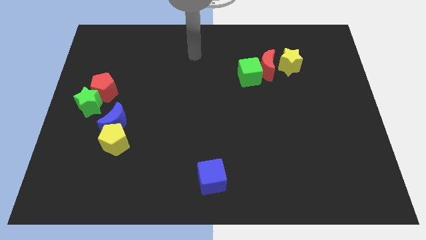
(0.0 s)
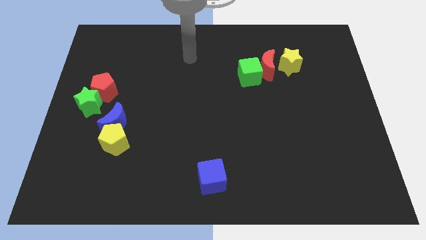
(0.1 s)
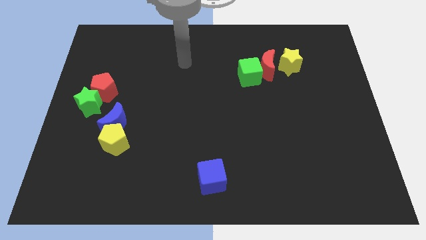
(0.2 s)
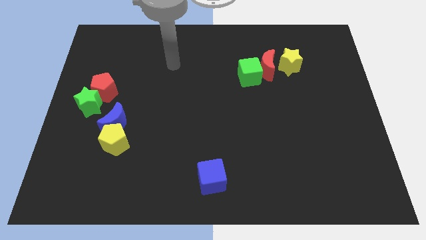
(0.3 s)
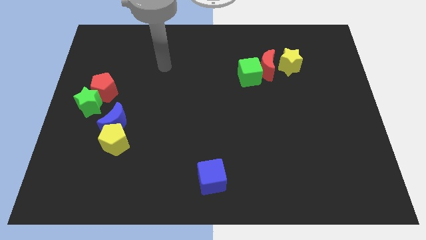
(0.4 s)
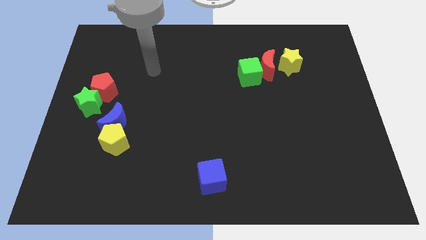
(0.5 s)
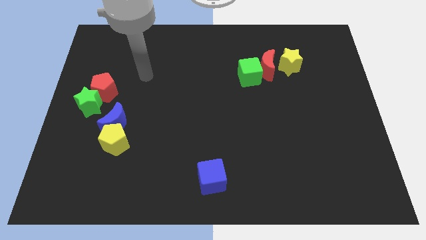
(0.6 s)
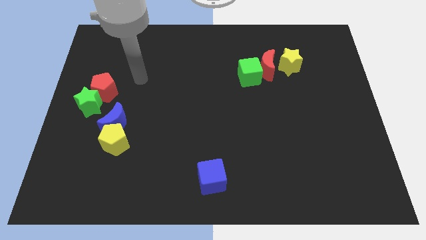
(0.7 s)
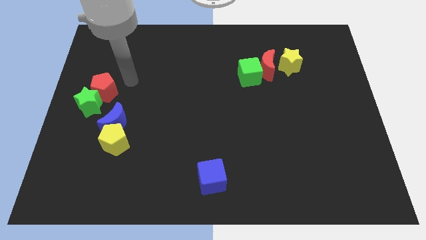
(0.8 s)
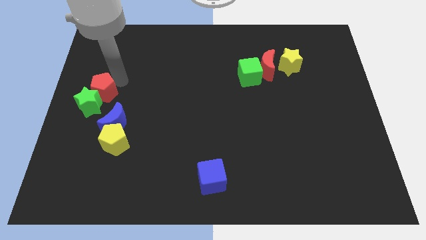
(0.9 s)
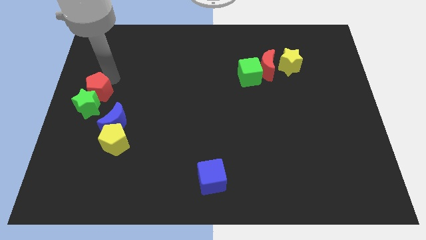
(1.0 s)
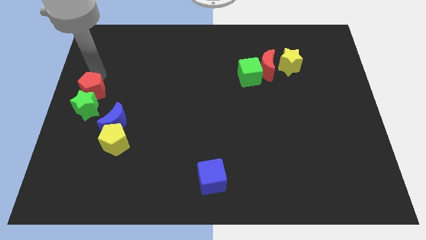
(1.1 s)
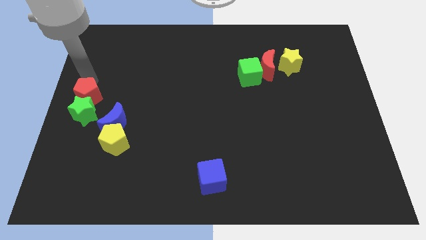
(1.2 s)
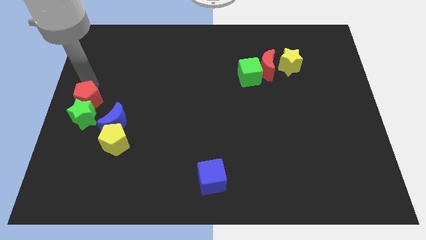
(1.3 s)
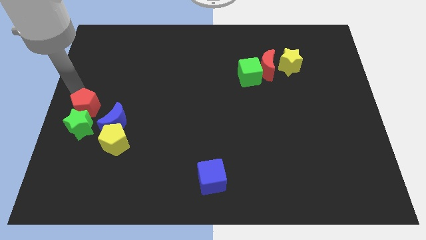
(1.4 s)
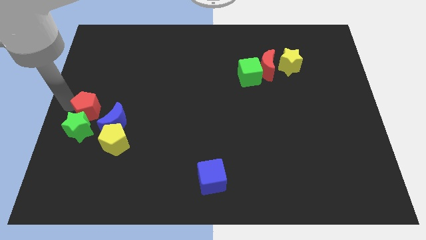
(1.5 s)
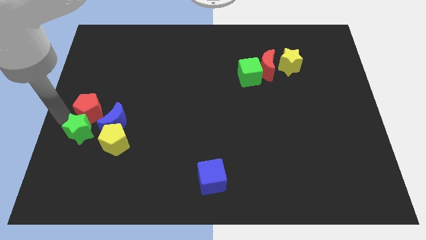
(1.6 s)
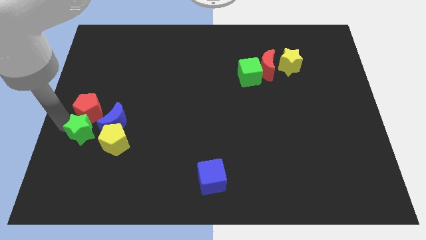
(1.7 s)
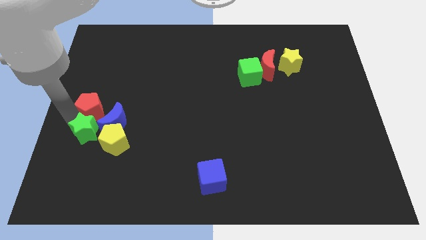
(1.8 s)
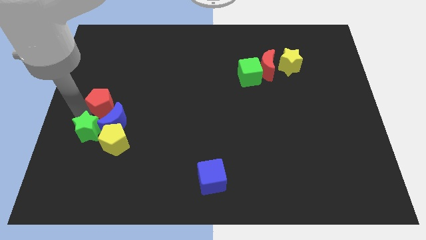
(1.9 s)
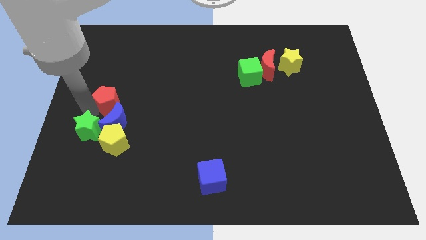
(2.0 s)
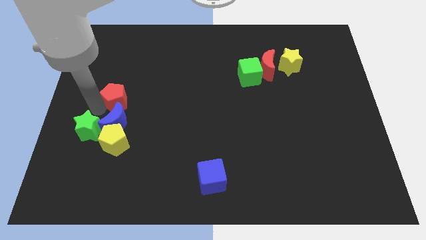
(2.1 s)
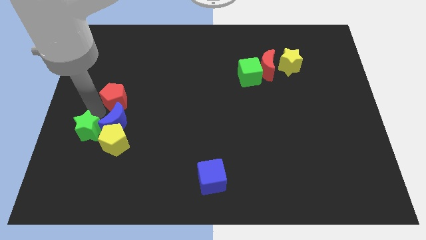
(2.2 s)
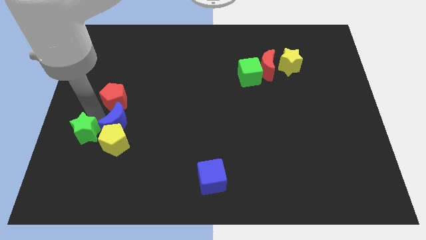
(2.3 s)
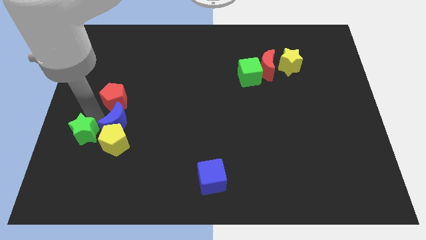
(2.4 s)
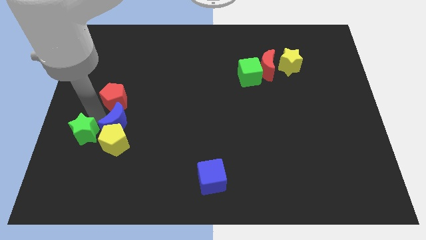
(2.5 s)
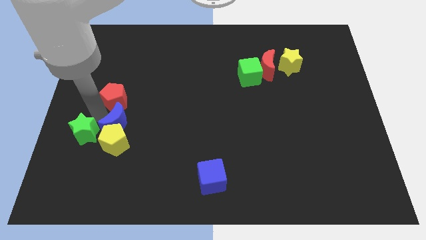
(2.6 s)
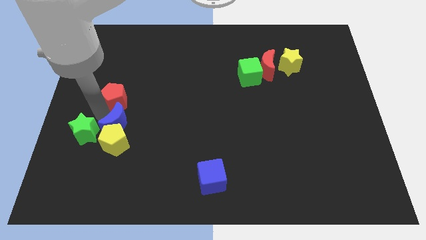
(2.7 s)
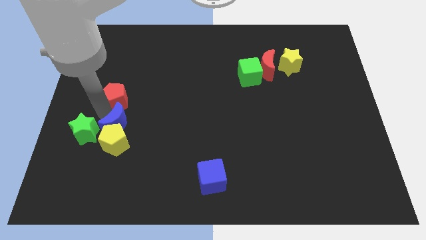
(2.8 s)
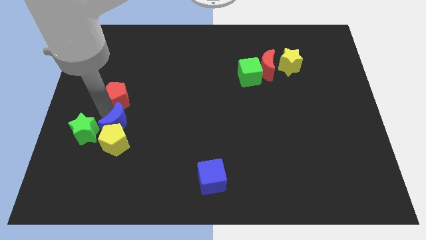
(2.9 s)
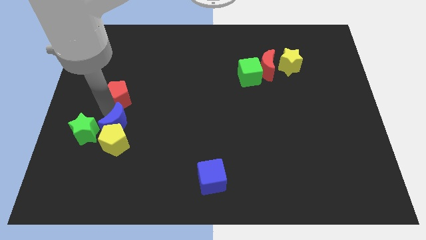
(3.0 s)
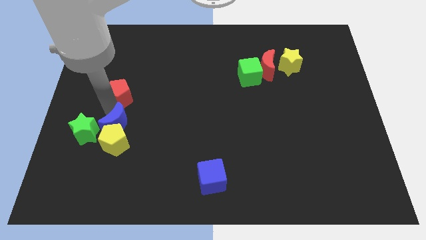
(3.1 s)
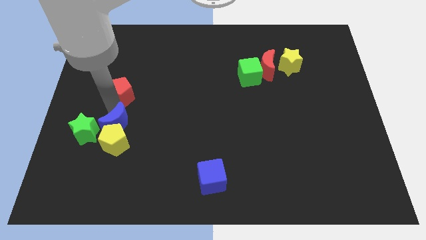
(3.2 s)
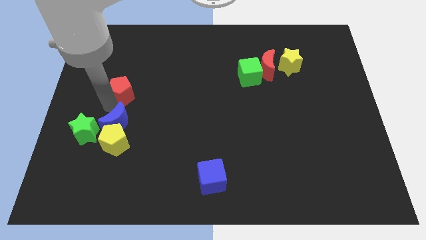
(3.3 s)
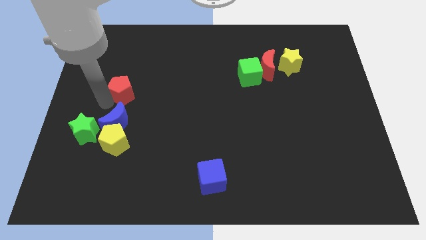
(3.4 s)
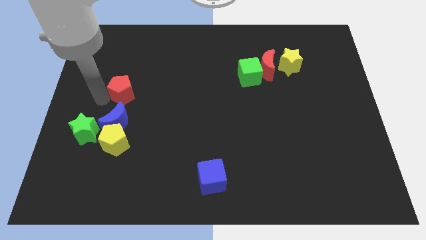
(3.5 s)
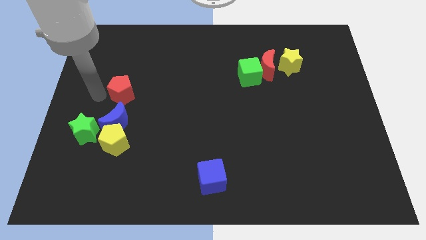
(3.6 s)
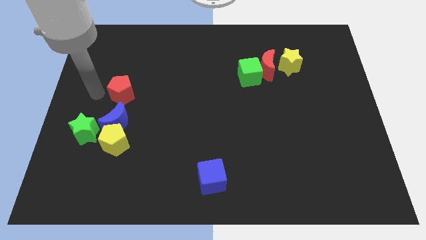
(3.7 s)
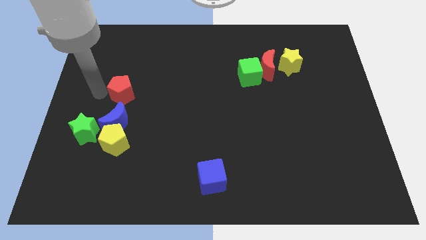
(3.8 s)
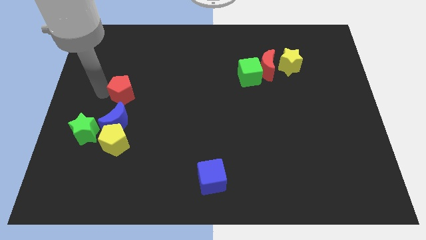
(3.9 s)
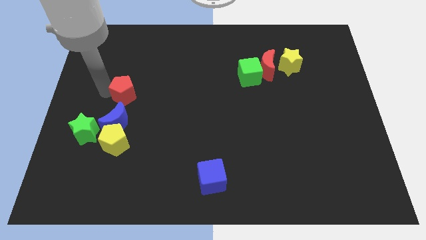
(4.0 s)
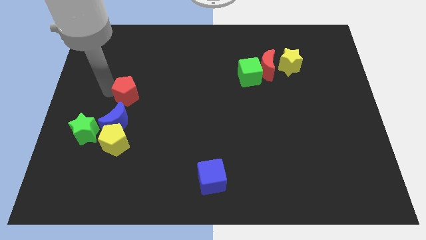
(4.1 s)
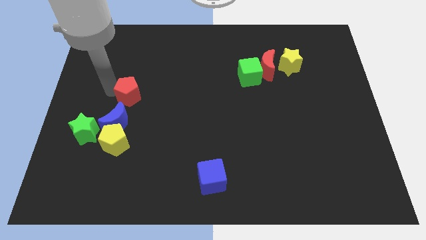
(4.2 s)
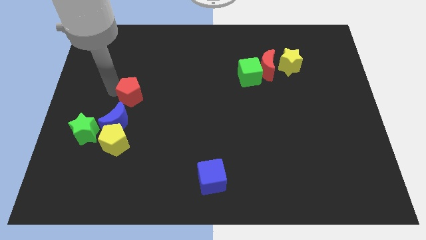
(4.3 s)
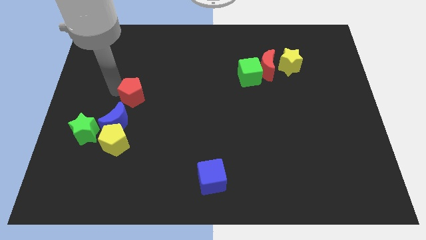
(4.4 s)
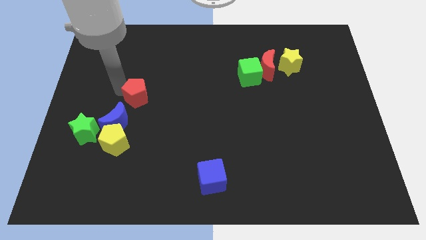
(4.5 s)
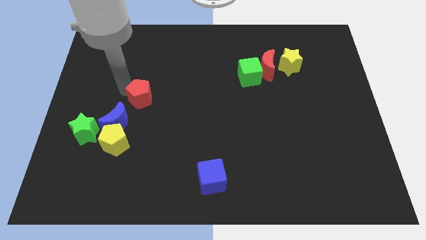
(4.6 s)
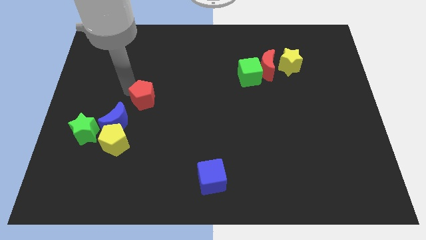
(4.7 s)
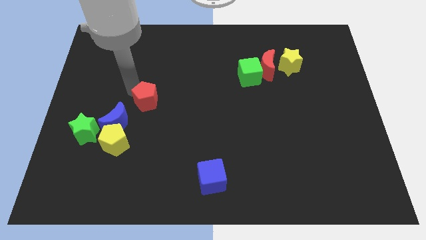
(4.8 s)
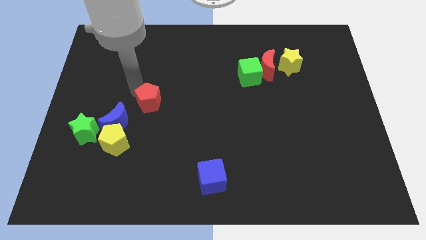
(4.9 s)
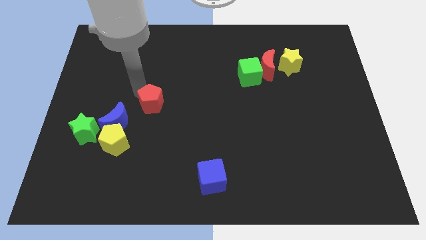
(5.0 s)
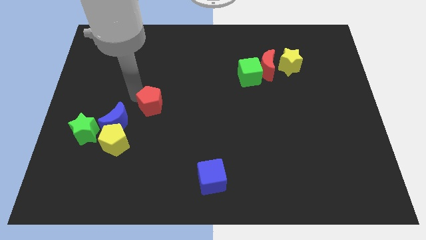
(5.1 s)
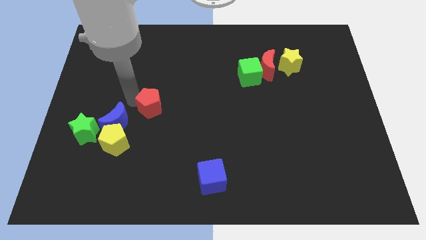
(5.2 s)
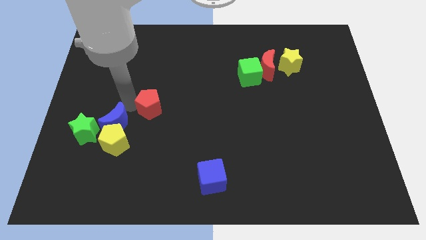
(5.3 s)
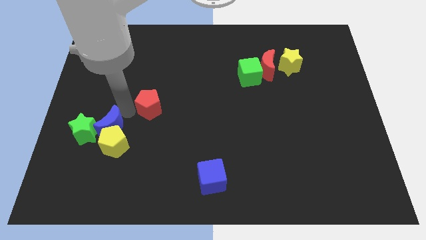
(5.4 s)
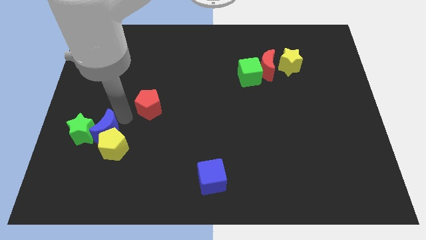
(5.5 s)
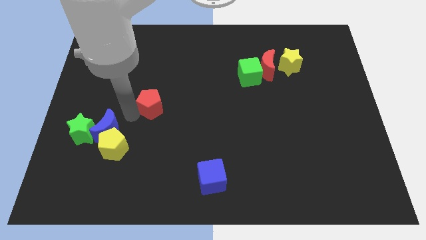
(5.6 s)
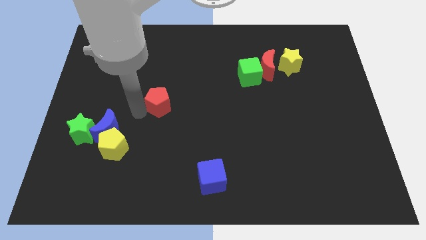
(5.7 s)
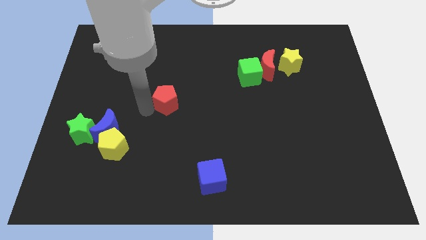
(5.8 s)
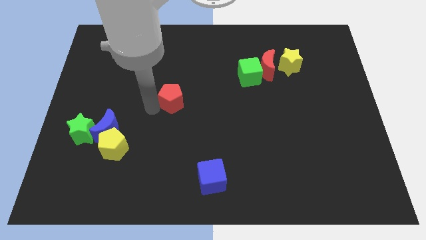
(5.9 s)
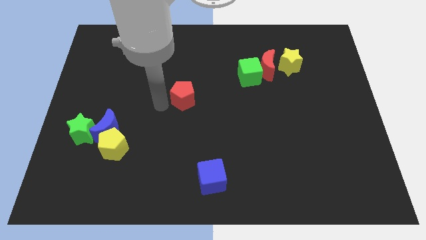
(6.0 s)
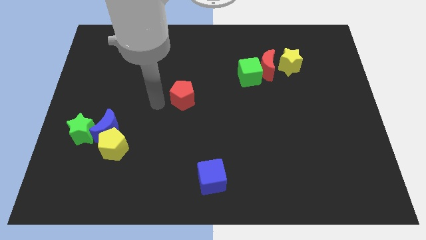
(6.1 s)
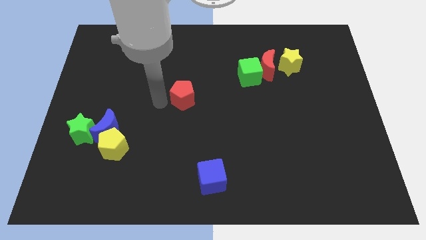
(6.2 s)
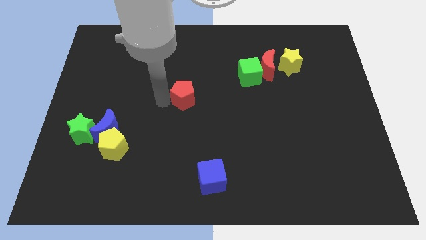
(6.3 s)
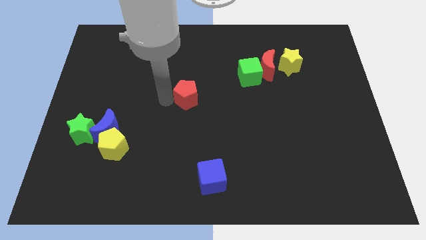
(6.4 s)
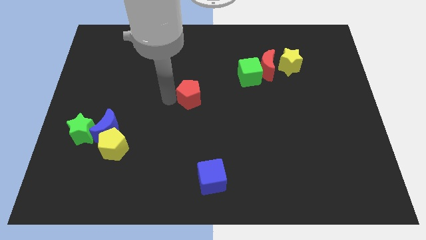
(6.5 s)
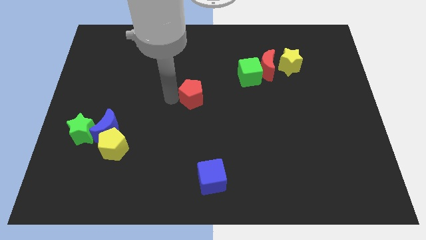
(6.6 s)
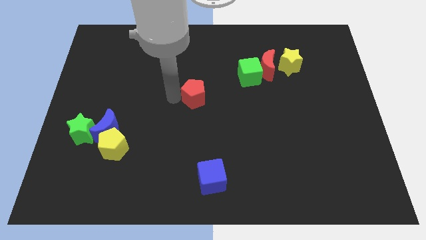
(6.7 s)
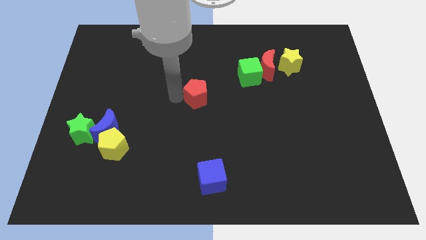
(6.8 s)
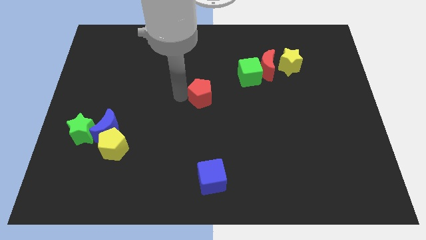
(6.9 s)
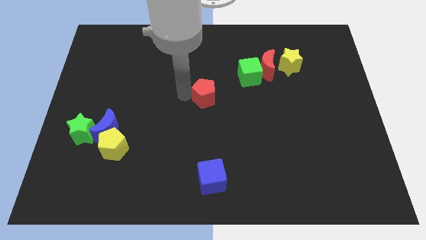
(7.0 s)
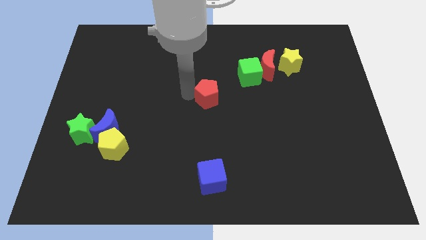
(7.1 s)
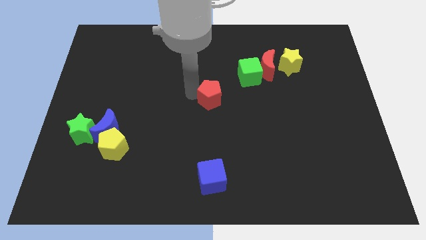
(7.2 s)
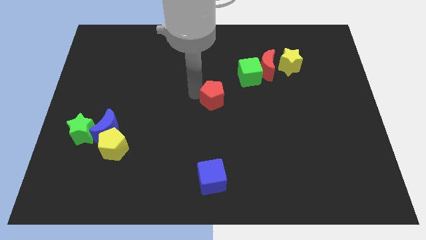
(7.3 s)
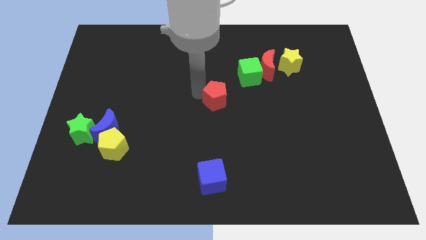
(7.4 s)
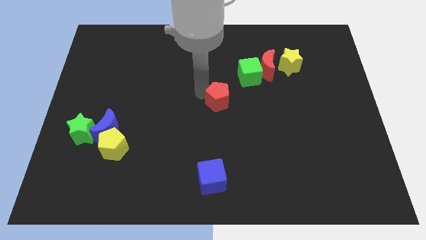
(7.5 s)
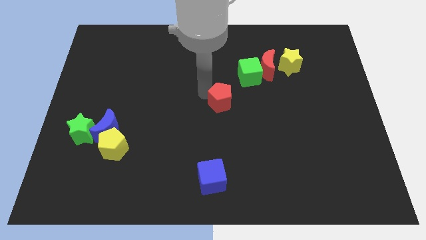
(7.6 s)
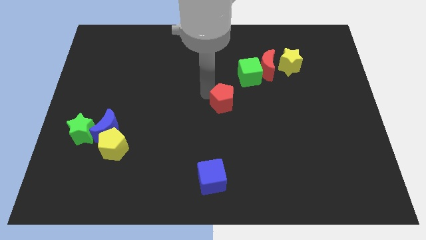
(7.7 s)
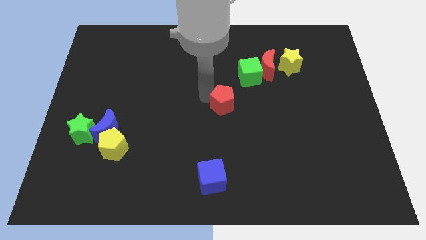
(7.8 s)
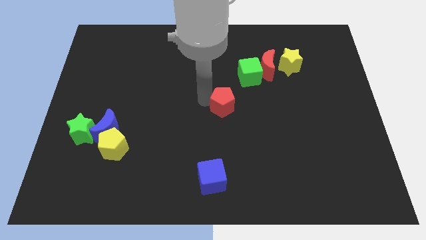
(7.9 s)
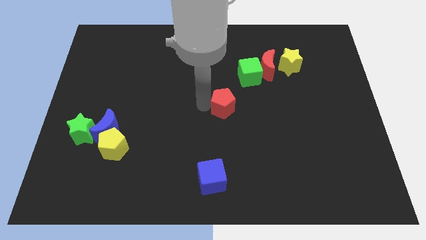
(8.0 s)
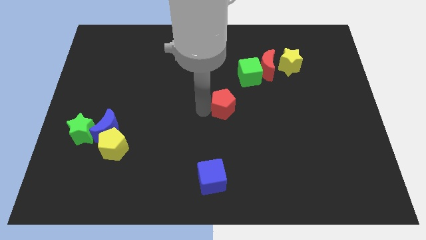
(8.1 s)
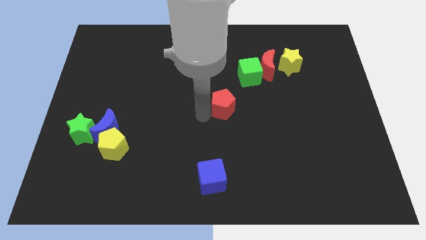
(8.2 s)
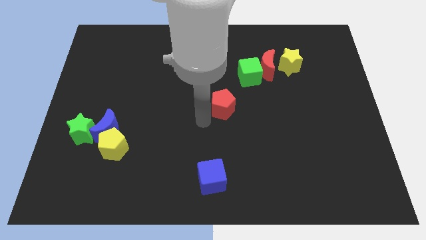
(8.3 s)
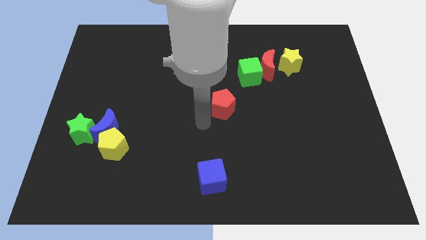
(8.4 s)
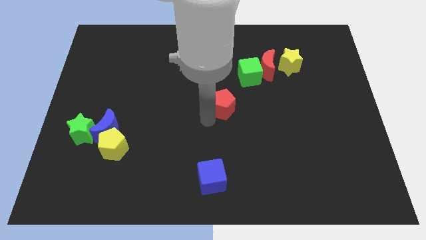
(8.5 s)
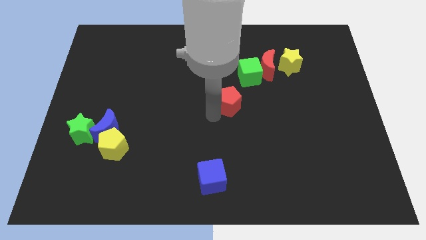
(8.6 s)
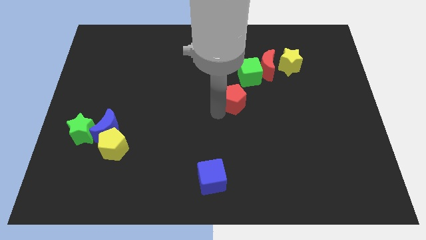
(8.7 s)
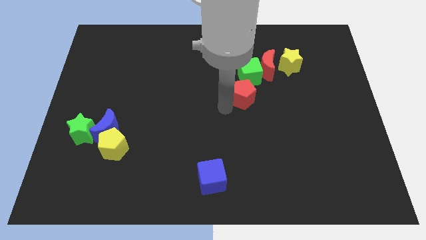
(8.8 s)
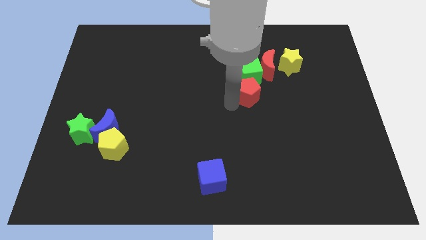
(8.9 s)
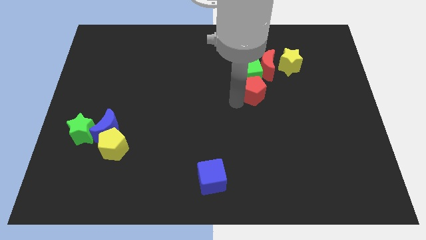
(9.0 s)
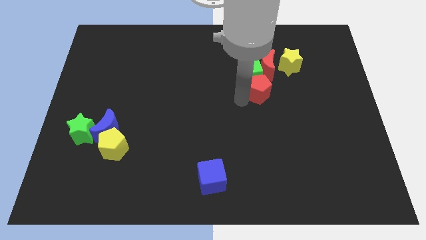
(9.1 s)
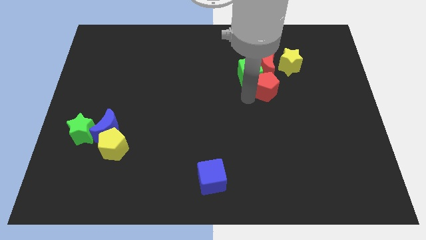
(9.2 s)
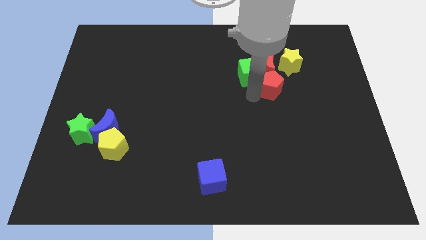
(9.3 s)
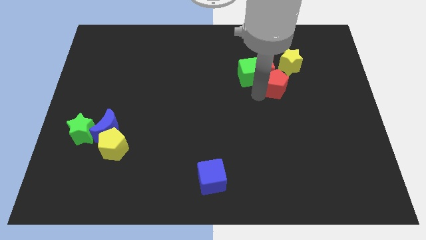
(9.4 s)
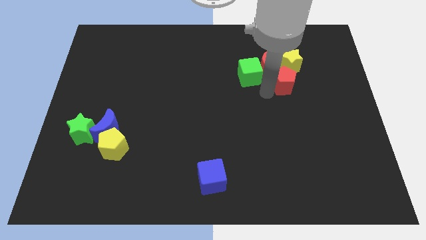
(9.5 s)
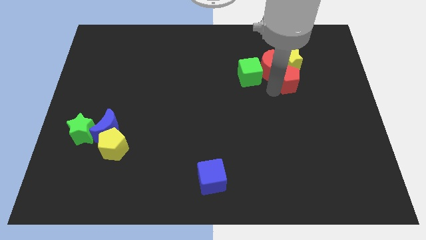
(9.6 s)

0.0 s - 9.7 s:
move the red pentagon to the yellow star
